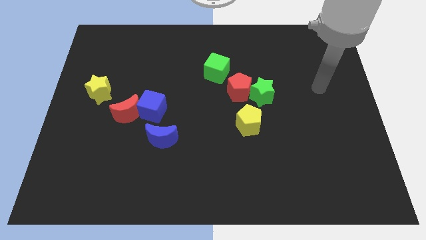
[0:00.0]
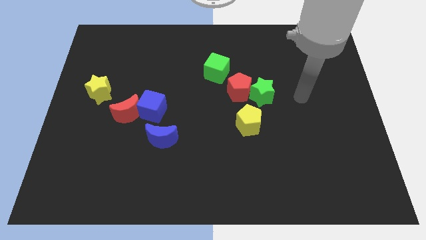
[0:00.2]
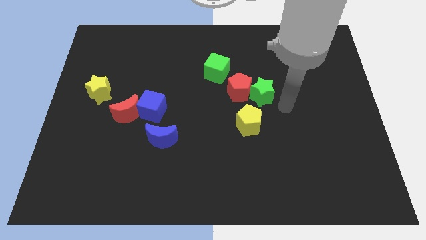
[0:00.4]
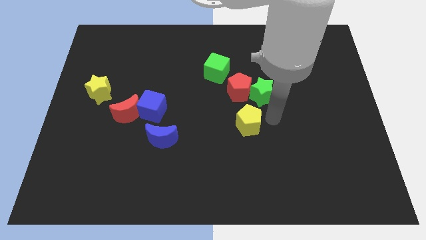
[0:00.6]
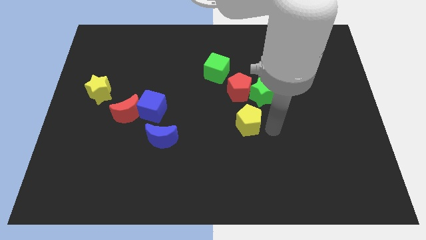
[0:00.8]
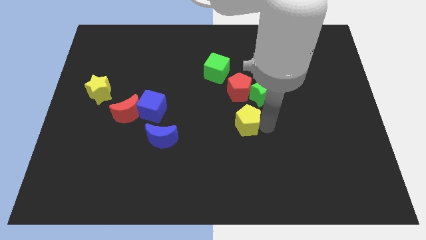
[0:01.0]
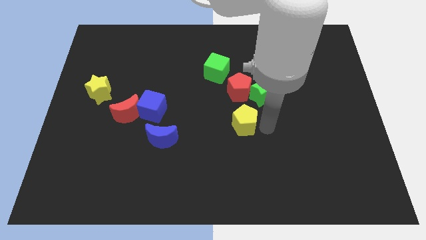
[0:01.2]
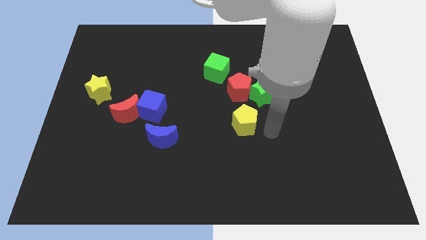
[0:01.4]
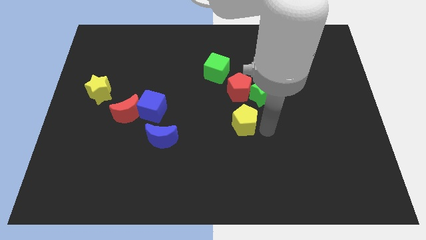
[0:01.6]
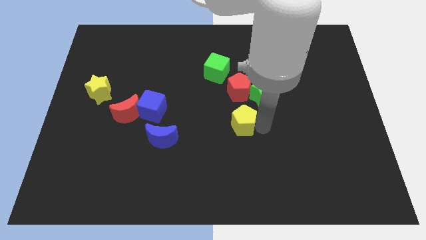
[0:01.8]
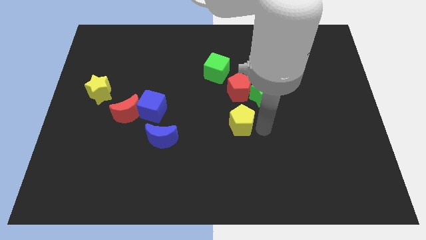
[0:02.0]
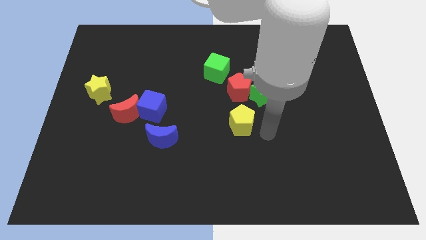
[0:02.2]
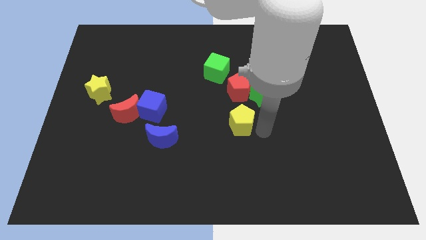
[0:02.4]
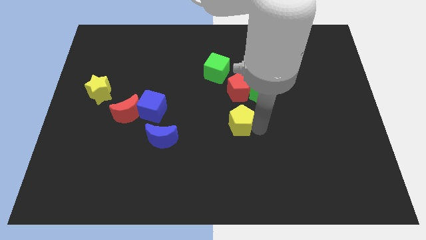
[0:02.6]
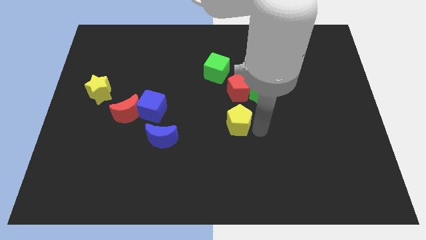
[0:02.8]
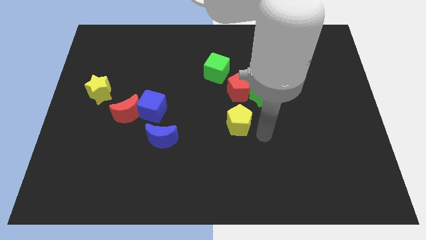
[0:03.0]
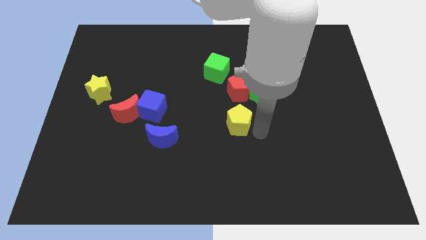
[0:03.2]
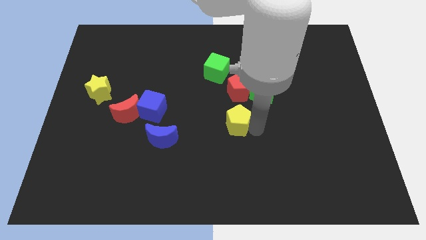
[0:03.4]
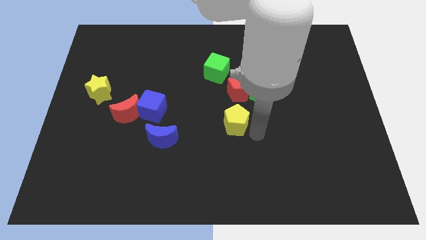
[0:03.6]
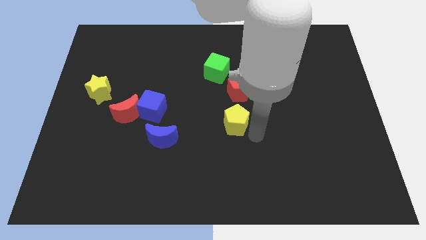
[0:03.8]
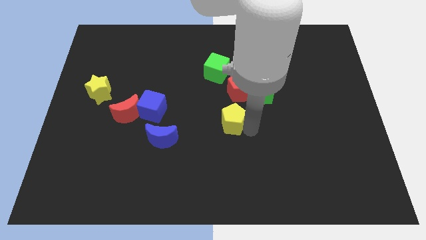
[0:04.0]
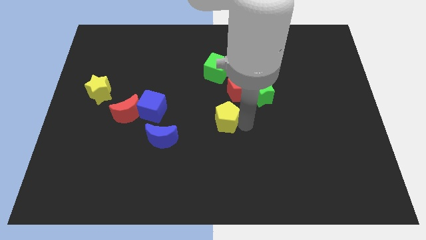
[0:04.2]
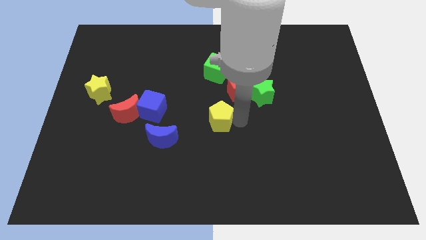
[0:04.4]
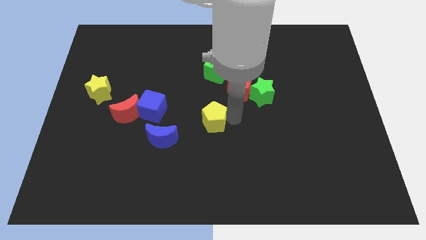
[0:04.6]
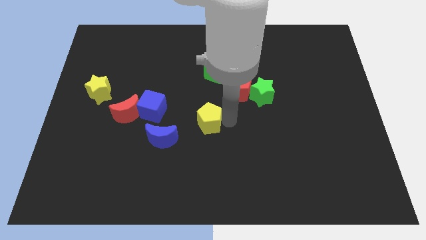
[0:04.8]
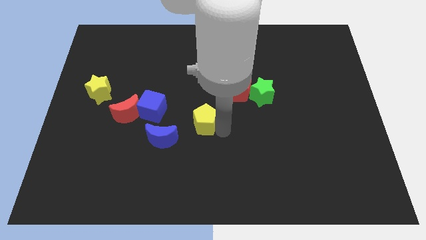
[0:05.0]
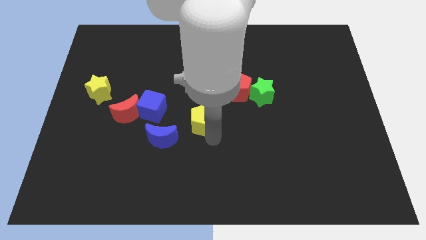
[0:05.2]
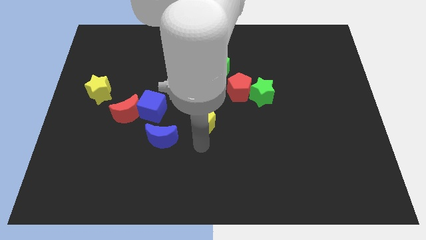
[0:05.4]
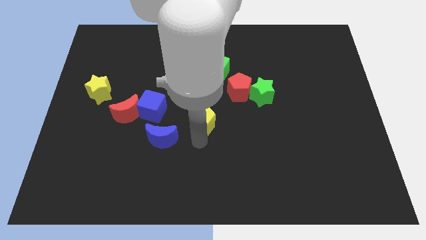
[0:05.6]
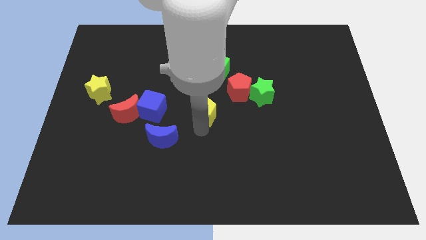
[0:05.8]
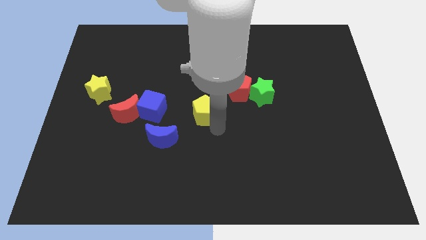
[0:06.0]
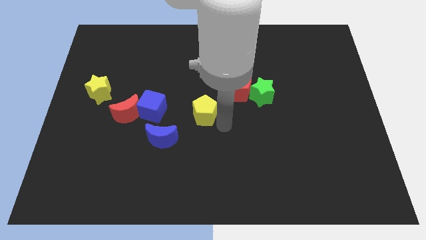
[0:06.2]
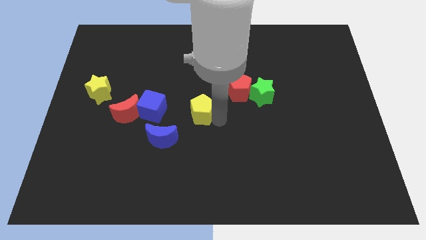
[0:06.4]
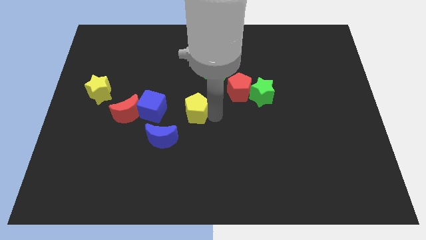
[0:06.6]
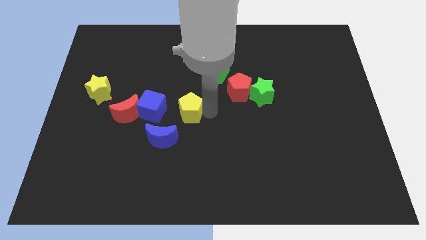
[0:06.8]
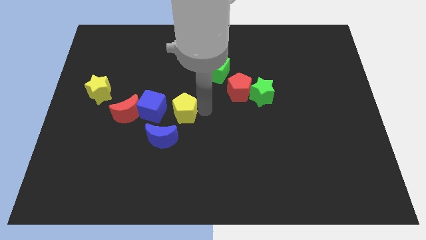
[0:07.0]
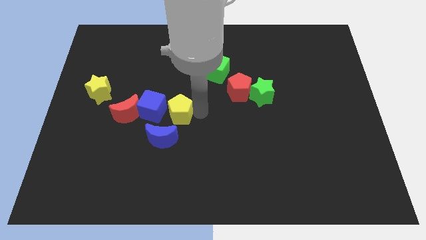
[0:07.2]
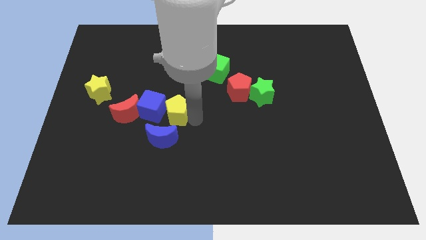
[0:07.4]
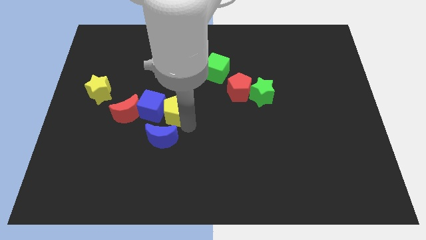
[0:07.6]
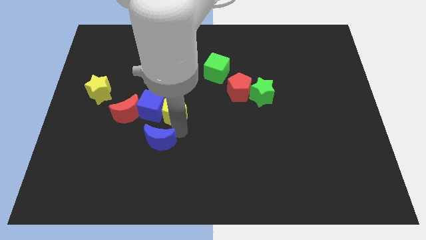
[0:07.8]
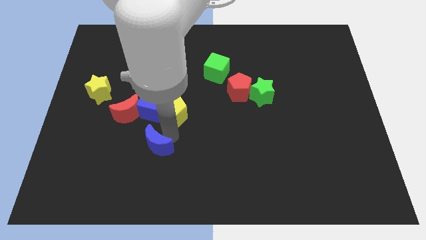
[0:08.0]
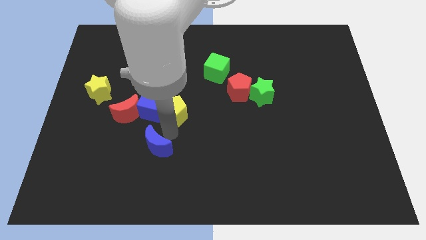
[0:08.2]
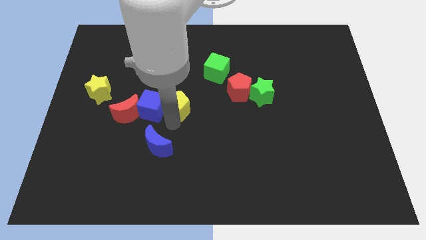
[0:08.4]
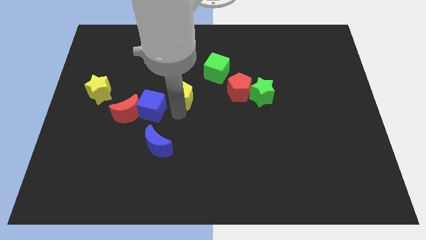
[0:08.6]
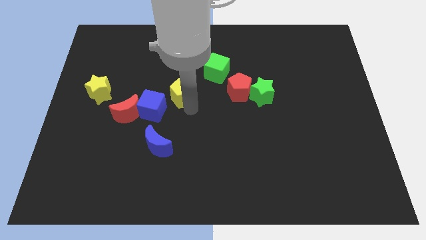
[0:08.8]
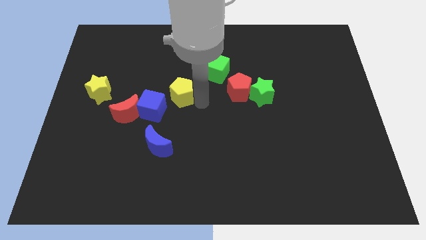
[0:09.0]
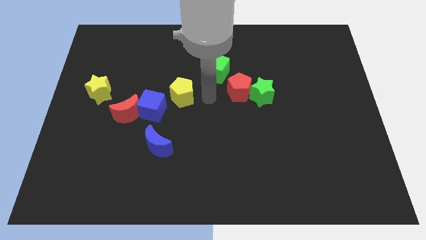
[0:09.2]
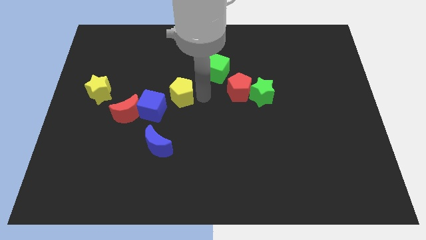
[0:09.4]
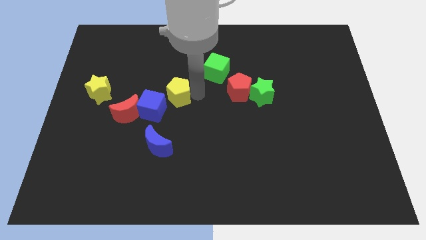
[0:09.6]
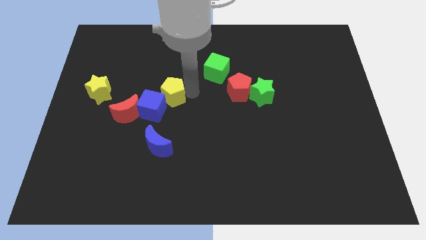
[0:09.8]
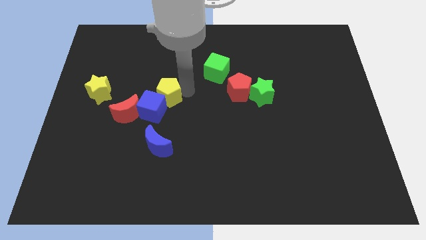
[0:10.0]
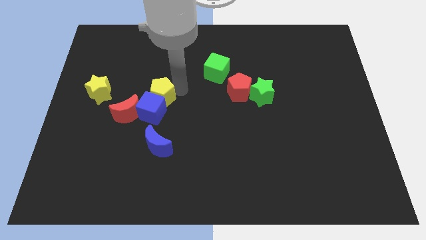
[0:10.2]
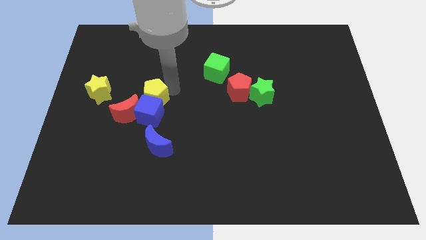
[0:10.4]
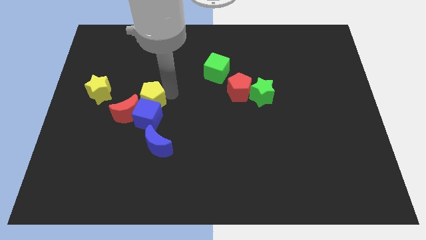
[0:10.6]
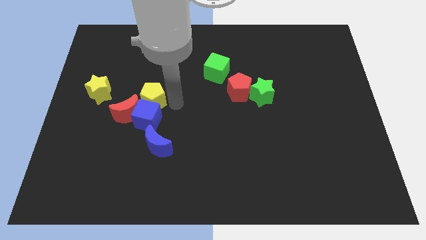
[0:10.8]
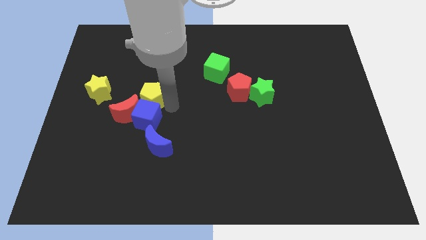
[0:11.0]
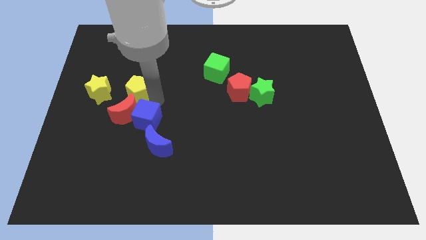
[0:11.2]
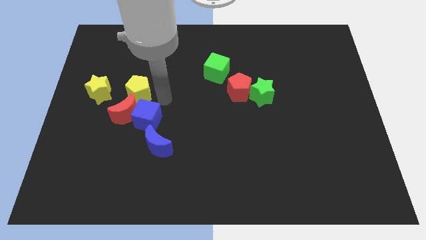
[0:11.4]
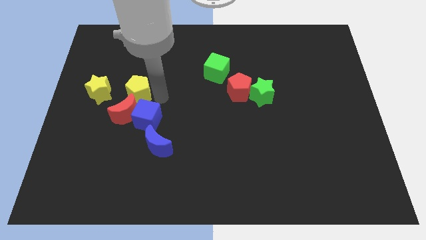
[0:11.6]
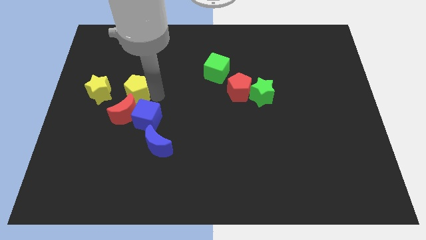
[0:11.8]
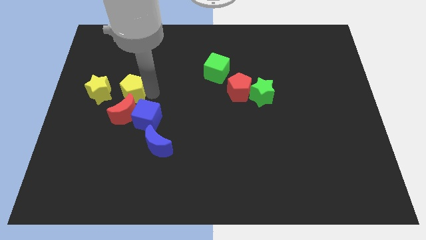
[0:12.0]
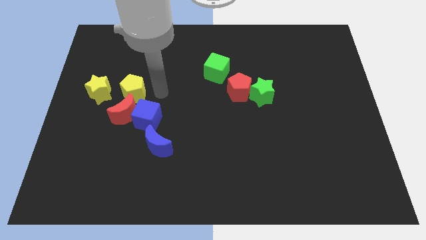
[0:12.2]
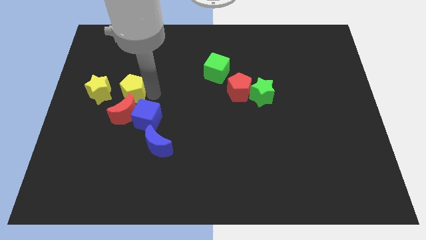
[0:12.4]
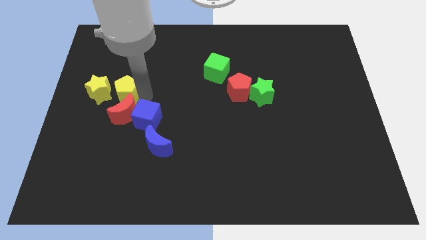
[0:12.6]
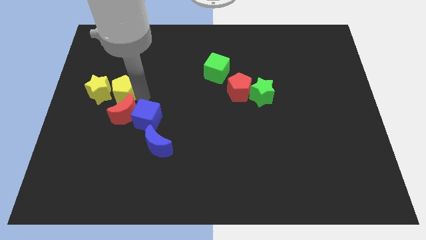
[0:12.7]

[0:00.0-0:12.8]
put the yellow pentagon next to the yellow star

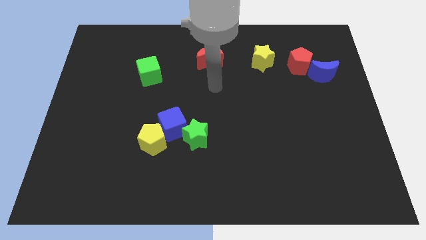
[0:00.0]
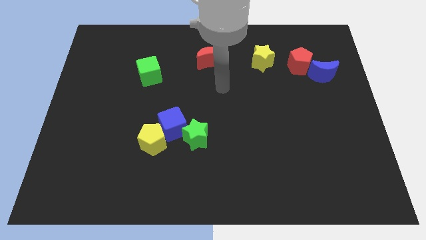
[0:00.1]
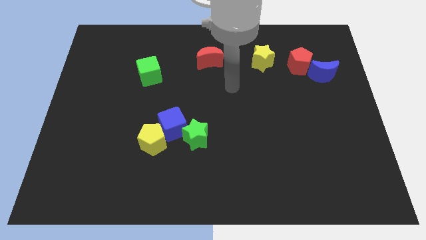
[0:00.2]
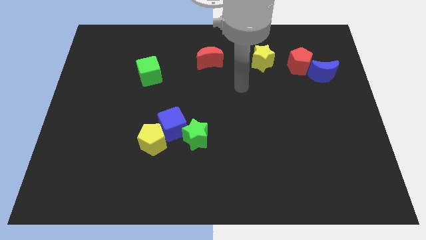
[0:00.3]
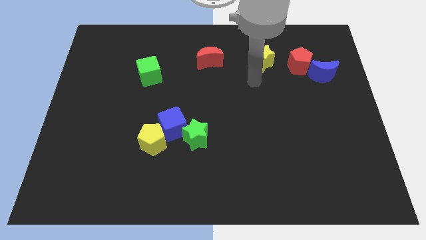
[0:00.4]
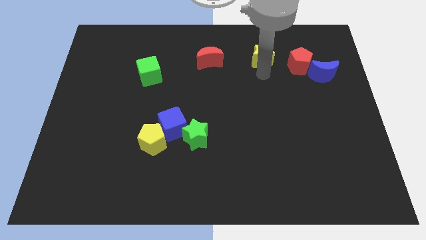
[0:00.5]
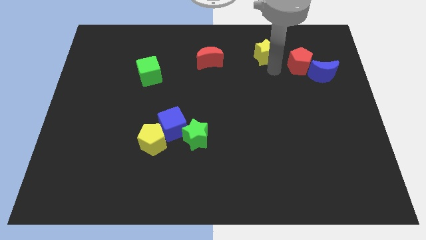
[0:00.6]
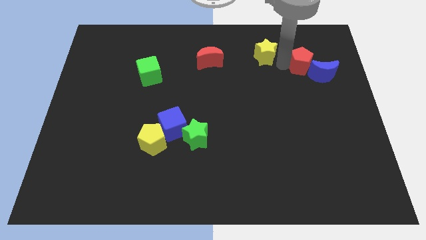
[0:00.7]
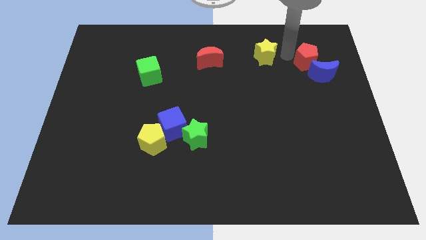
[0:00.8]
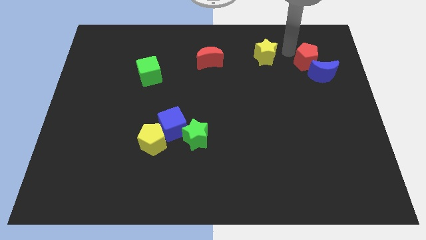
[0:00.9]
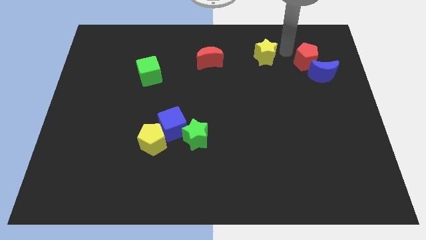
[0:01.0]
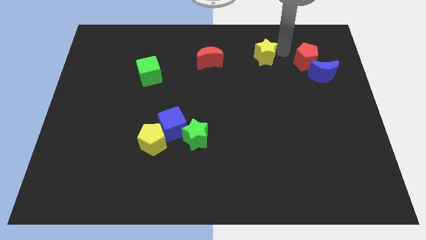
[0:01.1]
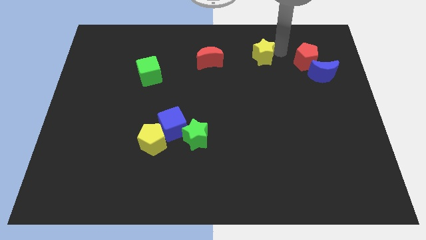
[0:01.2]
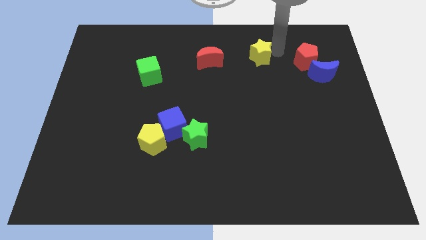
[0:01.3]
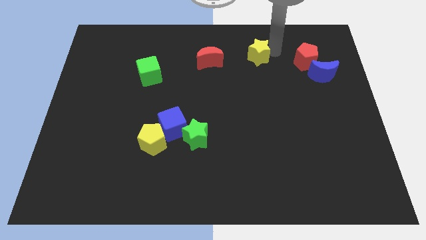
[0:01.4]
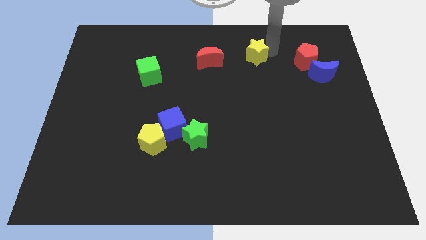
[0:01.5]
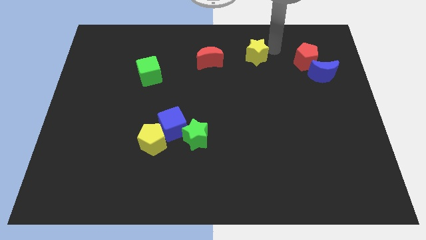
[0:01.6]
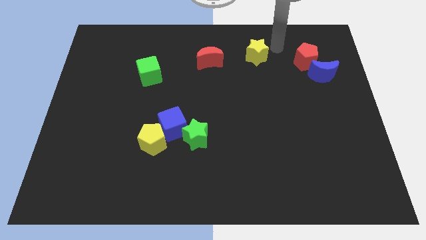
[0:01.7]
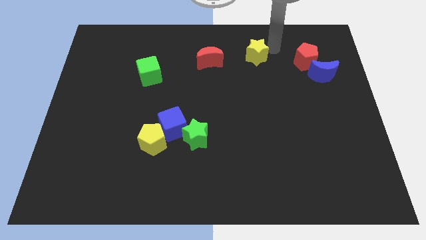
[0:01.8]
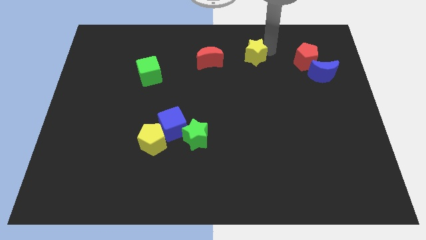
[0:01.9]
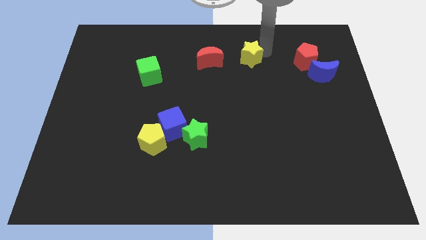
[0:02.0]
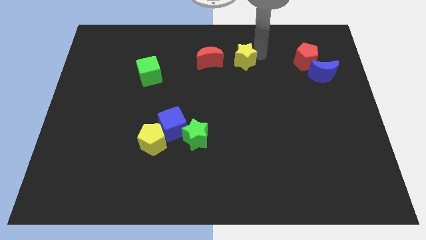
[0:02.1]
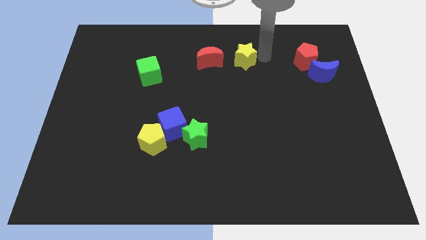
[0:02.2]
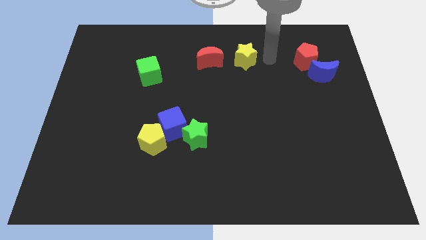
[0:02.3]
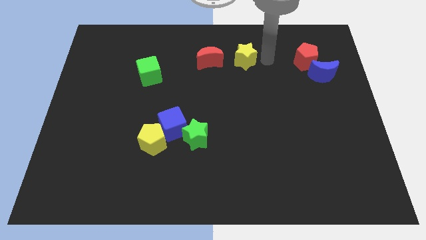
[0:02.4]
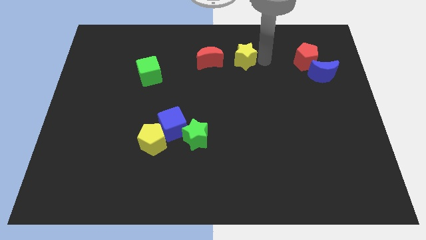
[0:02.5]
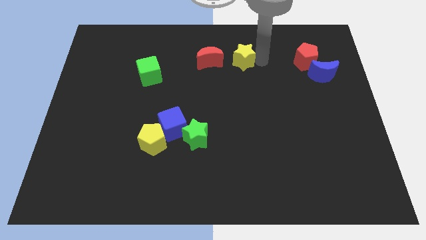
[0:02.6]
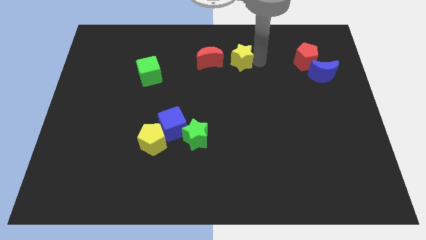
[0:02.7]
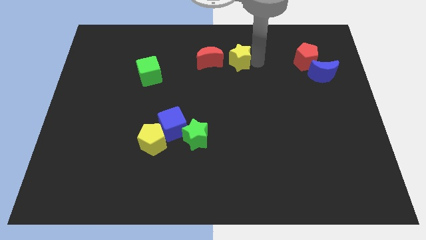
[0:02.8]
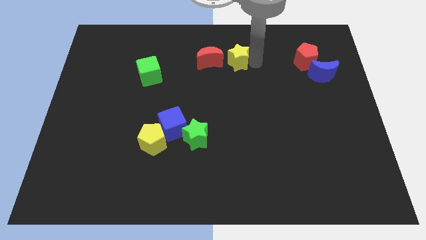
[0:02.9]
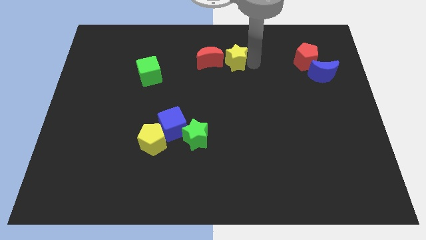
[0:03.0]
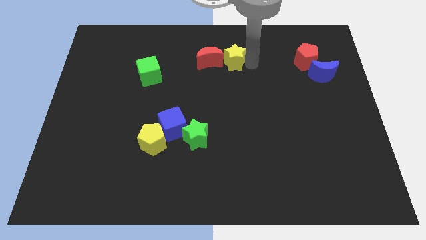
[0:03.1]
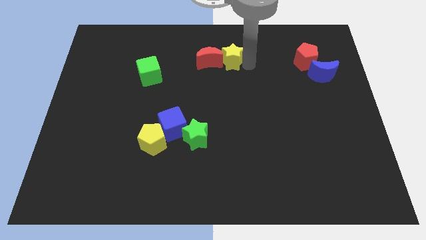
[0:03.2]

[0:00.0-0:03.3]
slide the yellow star next to the red moon
